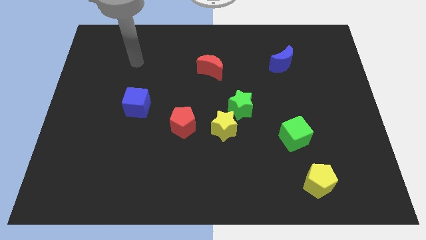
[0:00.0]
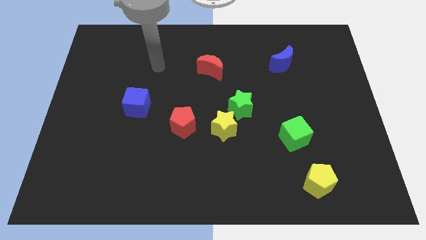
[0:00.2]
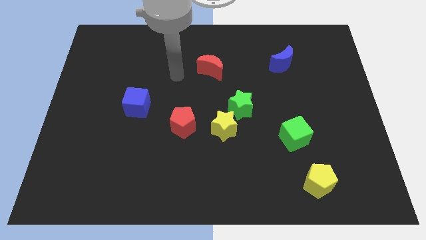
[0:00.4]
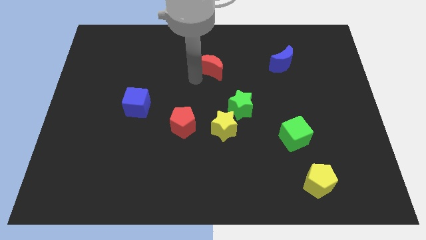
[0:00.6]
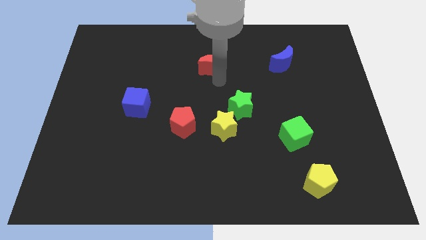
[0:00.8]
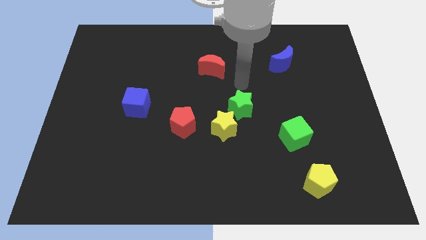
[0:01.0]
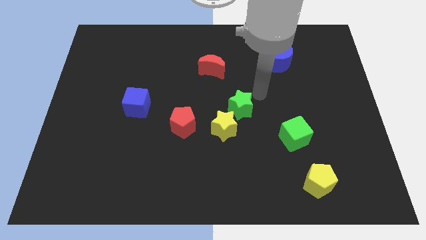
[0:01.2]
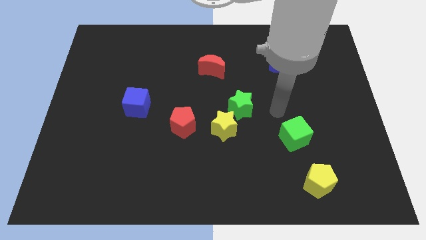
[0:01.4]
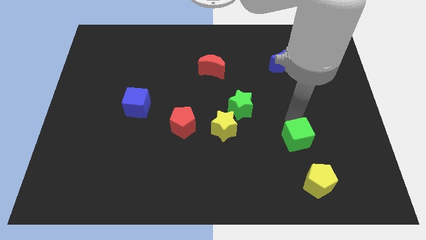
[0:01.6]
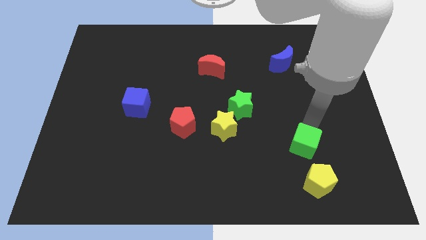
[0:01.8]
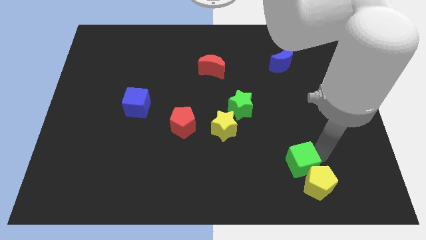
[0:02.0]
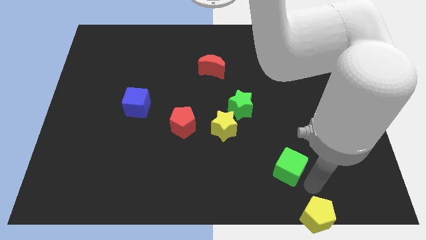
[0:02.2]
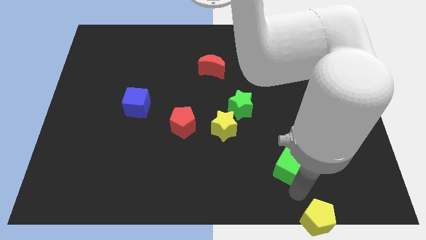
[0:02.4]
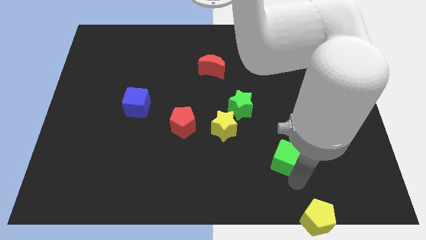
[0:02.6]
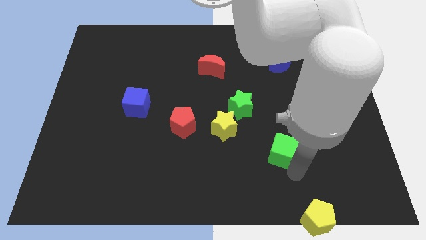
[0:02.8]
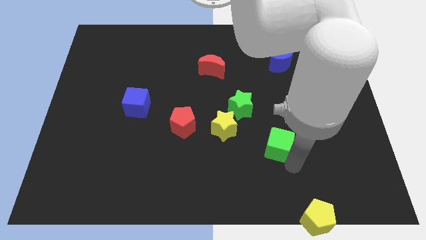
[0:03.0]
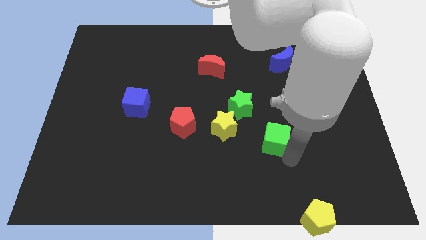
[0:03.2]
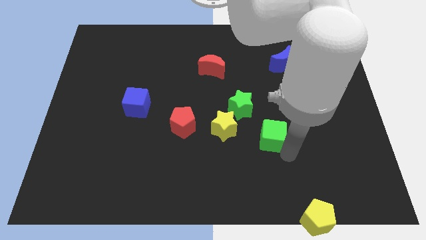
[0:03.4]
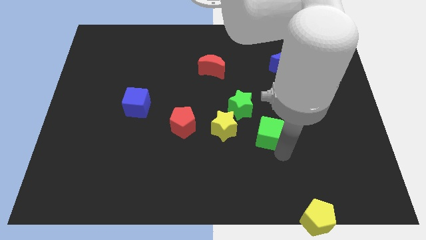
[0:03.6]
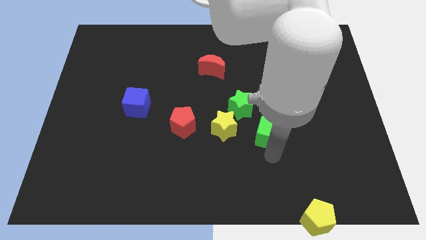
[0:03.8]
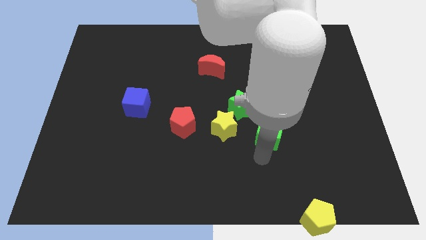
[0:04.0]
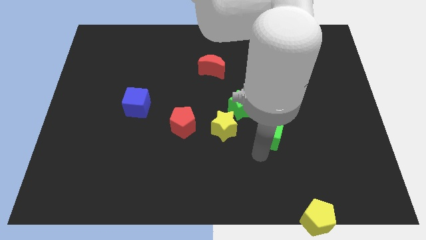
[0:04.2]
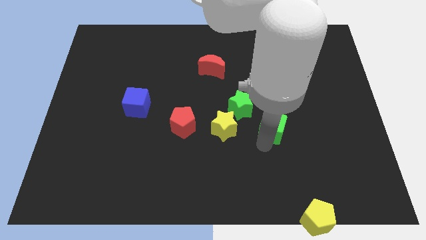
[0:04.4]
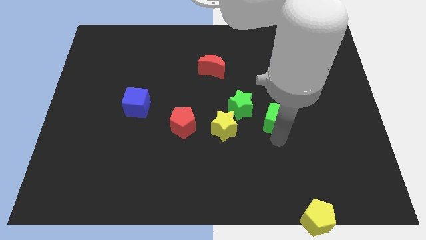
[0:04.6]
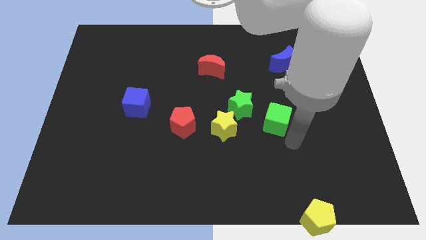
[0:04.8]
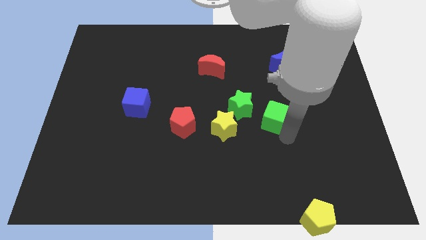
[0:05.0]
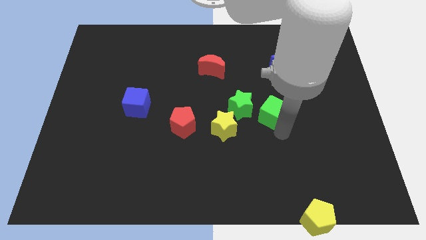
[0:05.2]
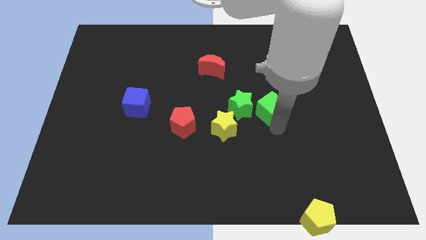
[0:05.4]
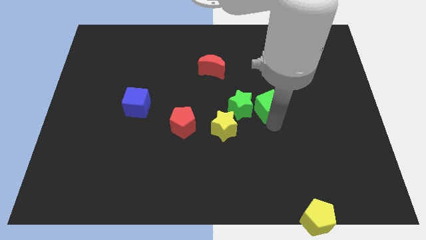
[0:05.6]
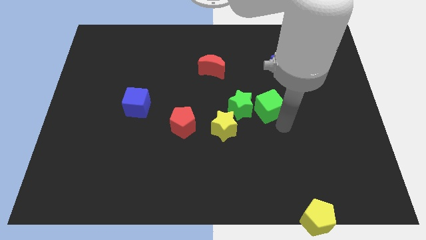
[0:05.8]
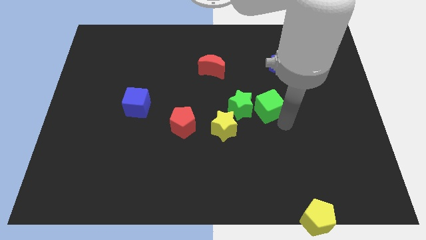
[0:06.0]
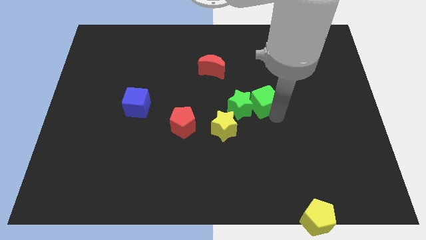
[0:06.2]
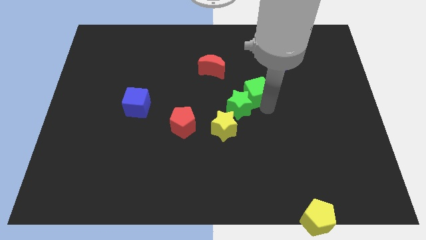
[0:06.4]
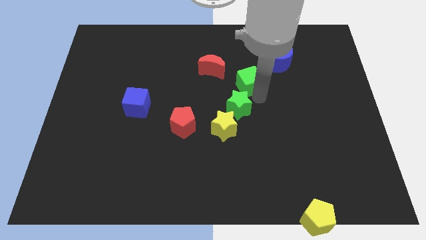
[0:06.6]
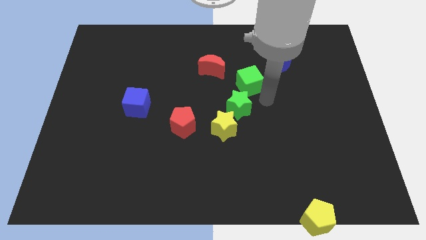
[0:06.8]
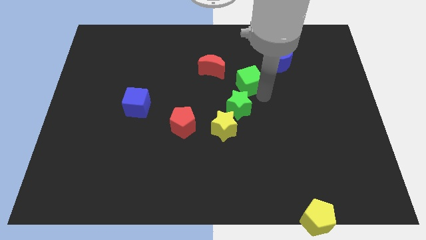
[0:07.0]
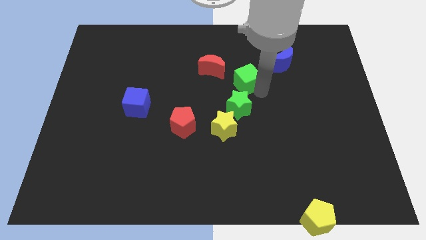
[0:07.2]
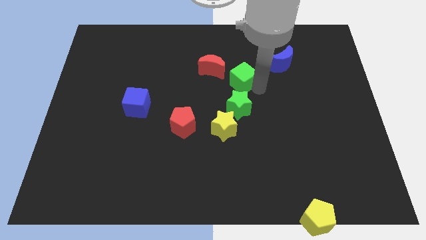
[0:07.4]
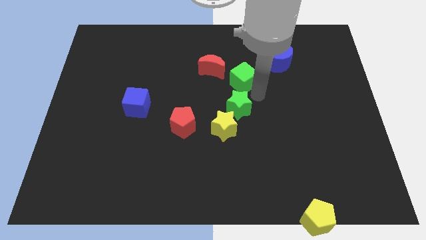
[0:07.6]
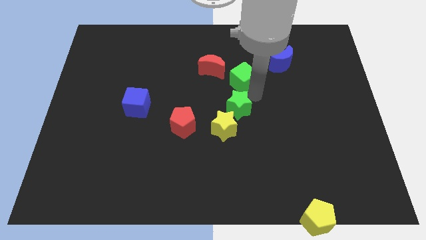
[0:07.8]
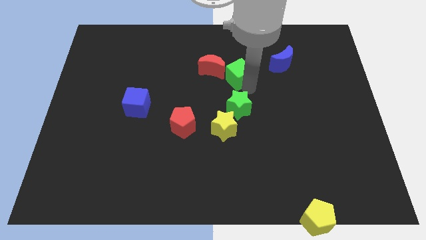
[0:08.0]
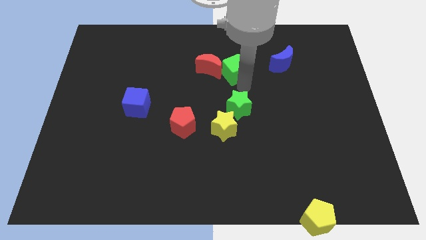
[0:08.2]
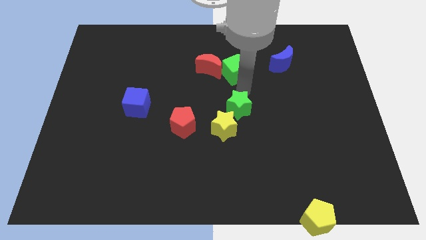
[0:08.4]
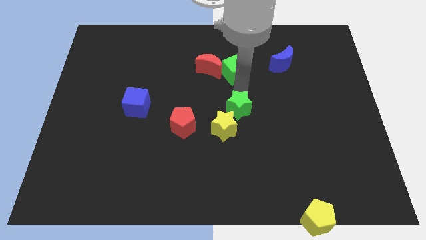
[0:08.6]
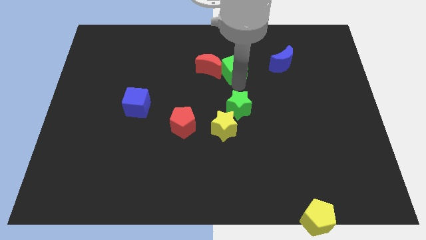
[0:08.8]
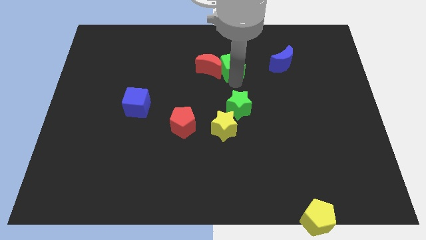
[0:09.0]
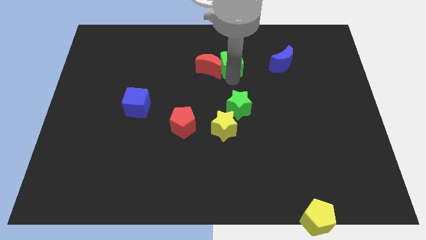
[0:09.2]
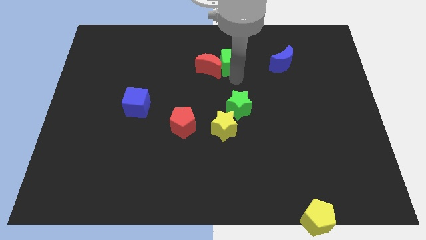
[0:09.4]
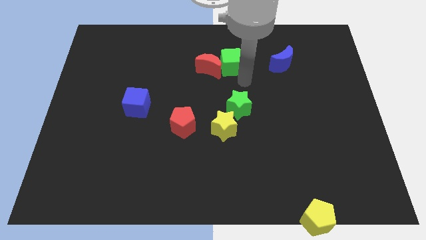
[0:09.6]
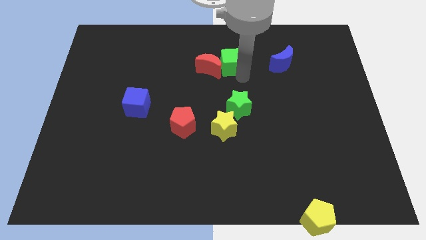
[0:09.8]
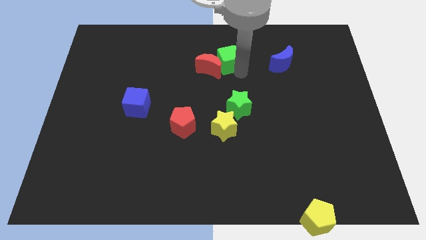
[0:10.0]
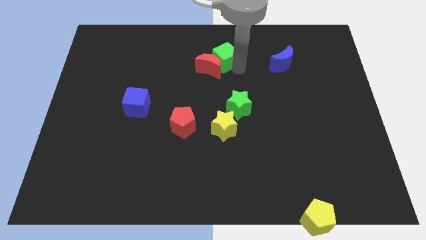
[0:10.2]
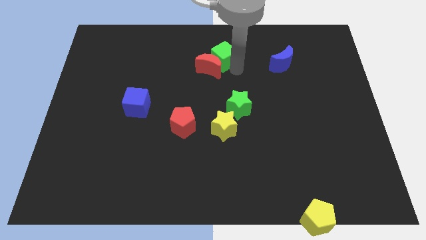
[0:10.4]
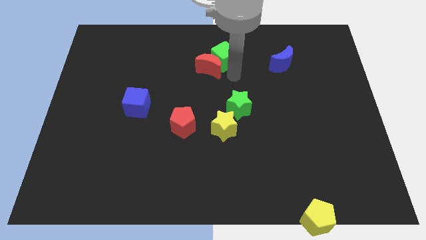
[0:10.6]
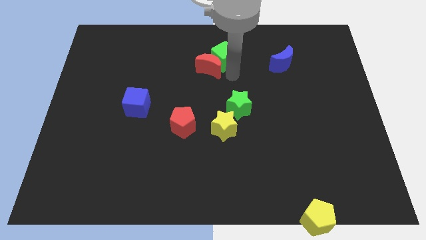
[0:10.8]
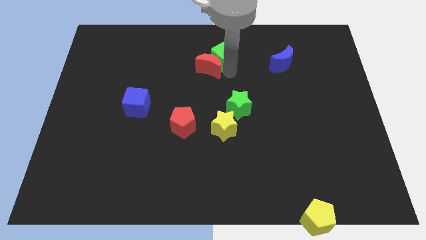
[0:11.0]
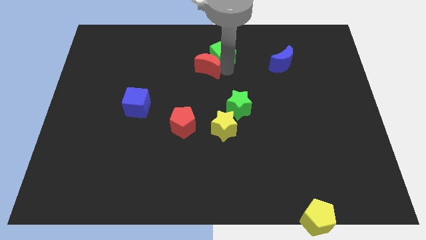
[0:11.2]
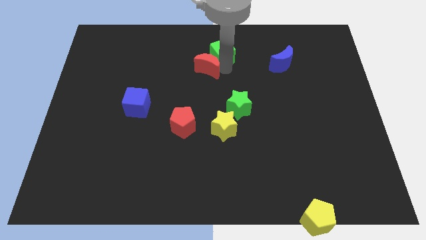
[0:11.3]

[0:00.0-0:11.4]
push the green cube to the top
